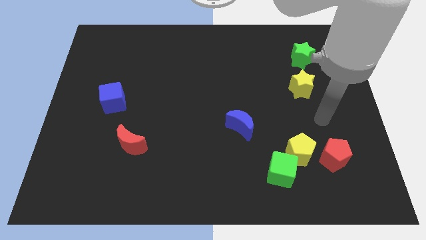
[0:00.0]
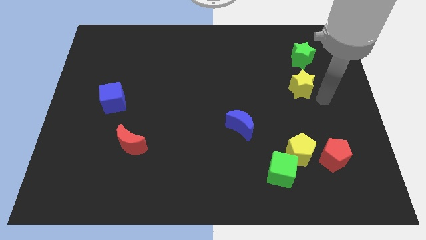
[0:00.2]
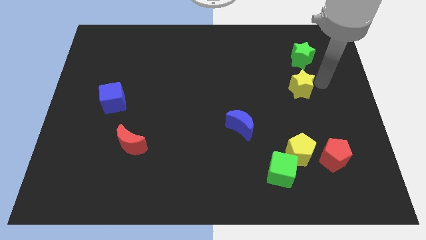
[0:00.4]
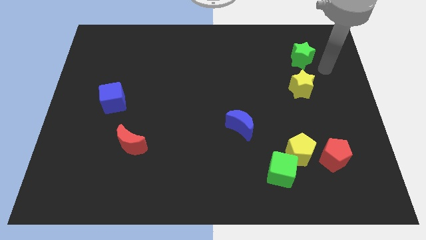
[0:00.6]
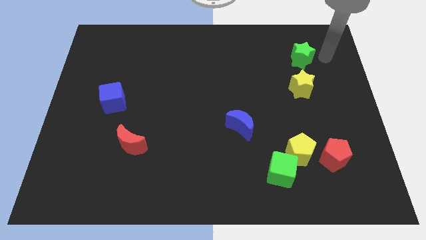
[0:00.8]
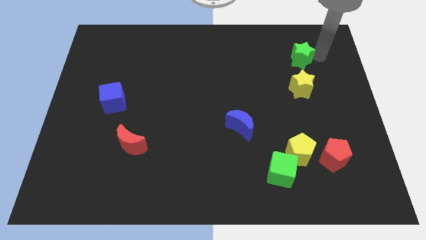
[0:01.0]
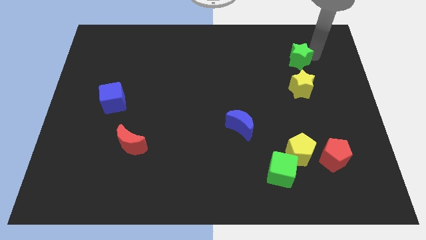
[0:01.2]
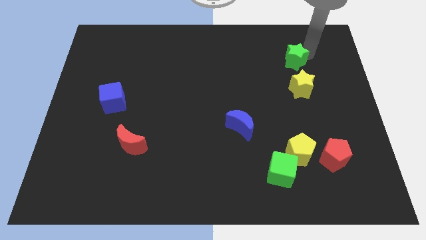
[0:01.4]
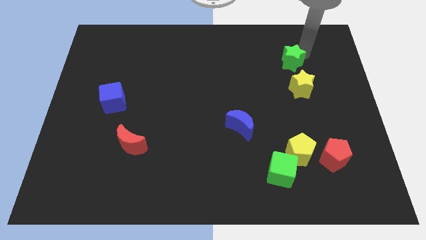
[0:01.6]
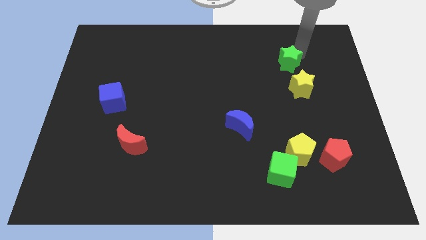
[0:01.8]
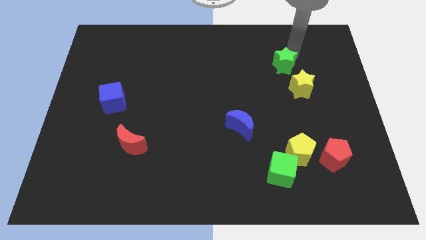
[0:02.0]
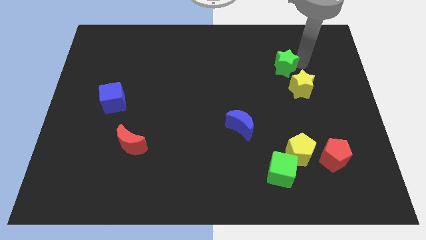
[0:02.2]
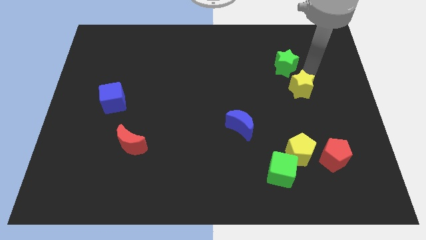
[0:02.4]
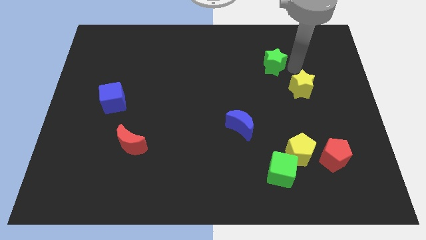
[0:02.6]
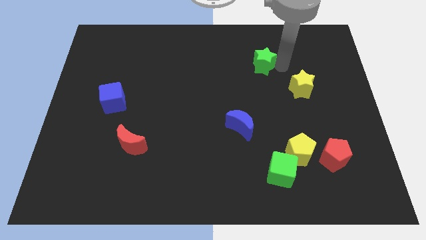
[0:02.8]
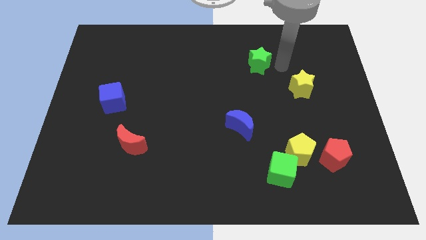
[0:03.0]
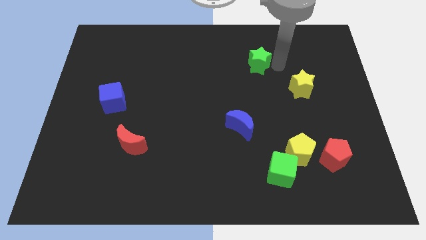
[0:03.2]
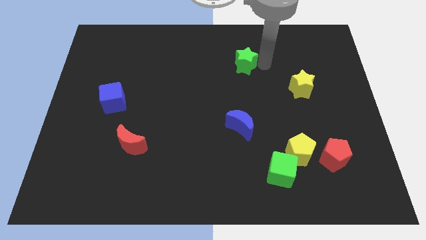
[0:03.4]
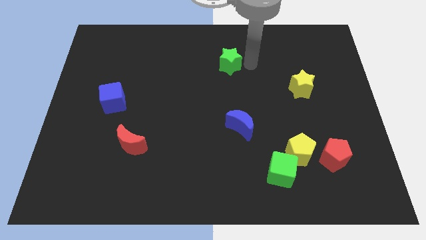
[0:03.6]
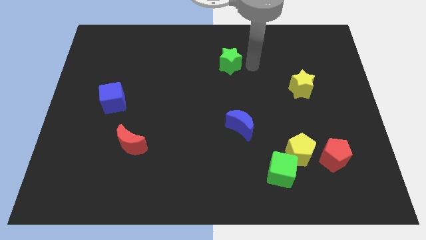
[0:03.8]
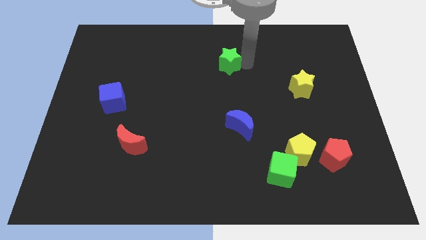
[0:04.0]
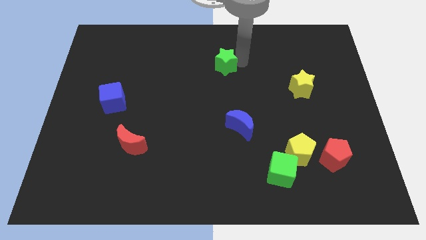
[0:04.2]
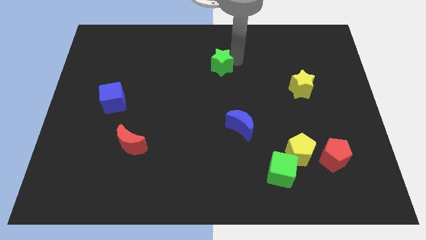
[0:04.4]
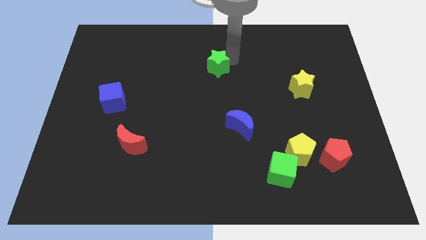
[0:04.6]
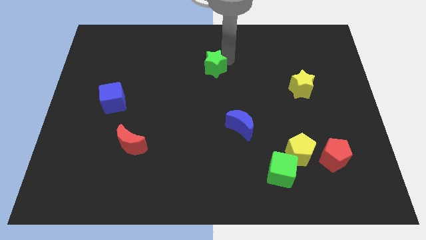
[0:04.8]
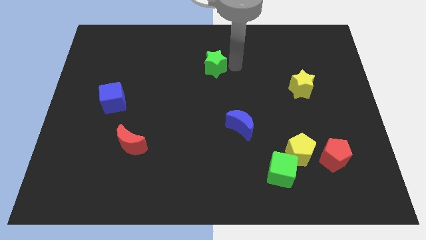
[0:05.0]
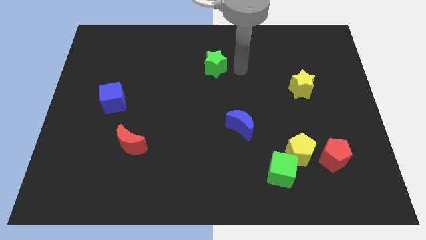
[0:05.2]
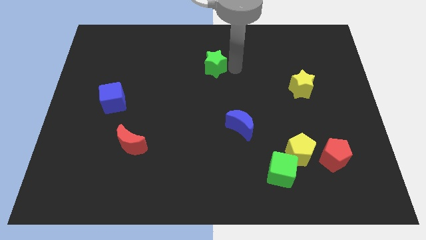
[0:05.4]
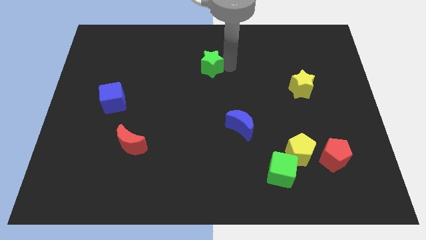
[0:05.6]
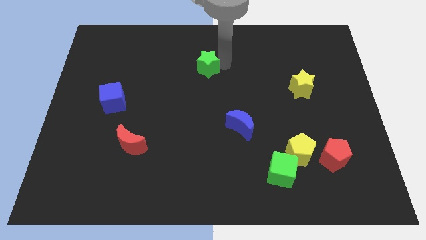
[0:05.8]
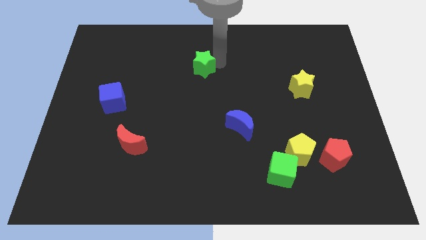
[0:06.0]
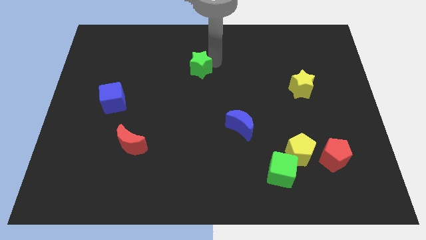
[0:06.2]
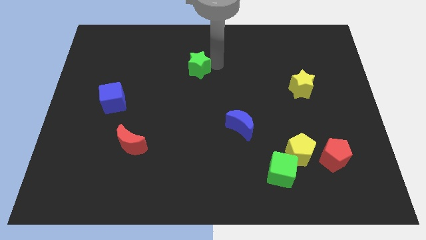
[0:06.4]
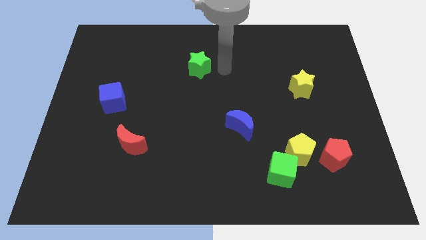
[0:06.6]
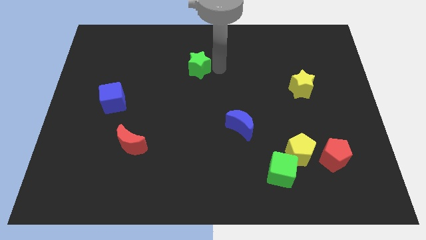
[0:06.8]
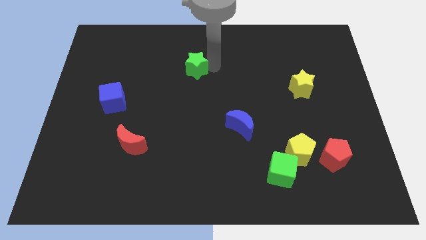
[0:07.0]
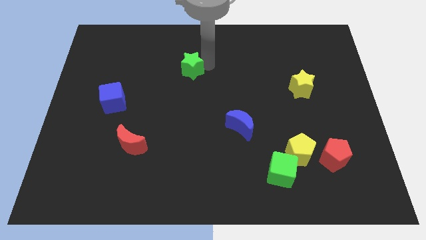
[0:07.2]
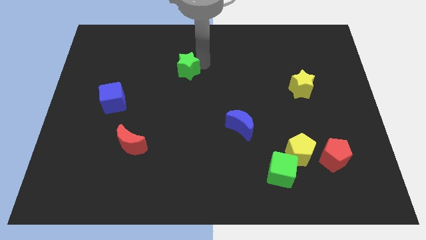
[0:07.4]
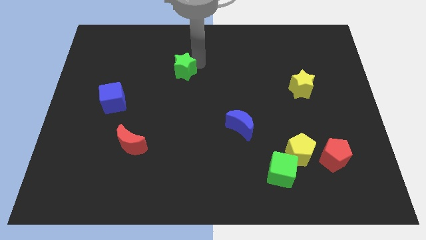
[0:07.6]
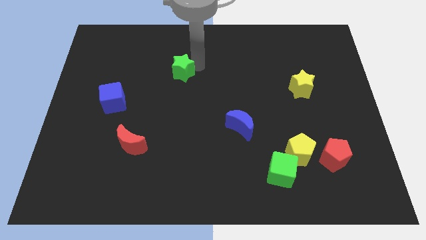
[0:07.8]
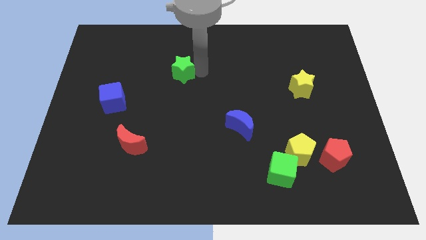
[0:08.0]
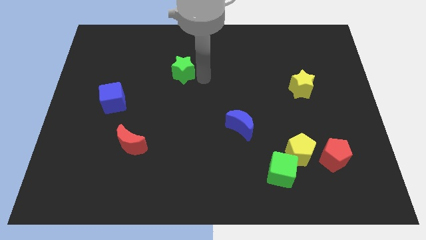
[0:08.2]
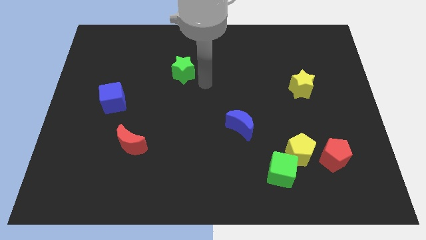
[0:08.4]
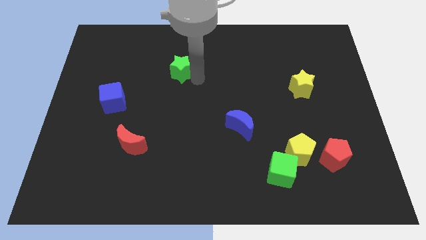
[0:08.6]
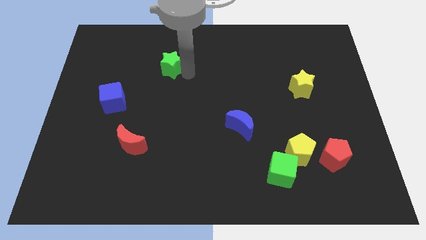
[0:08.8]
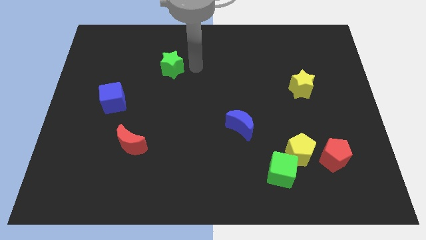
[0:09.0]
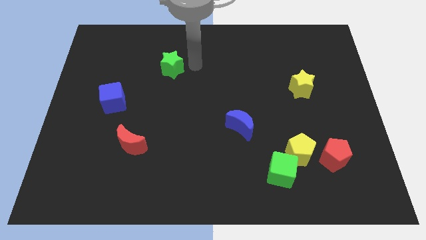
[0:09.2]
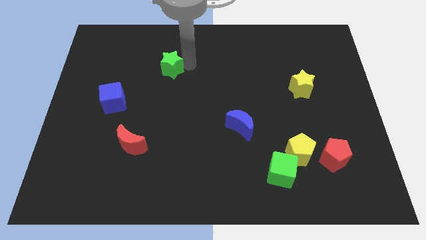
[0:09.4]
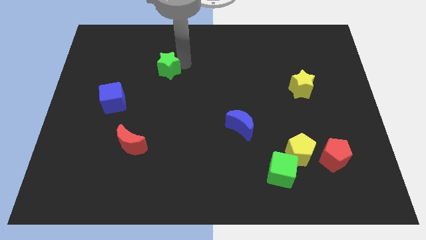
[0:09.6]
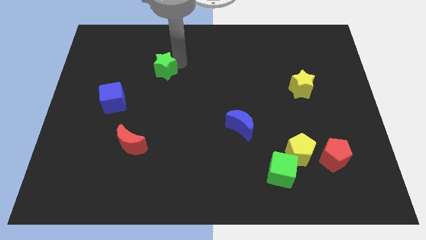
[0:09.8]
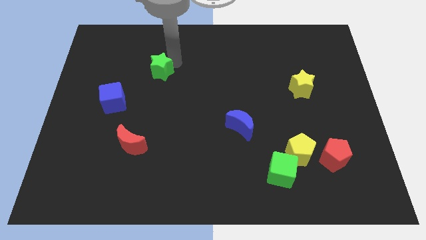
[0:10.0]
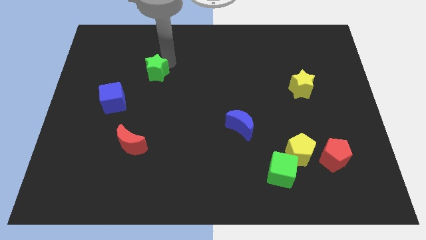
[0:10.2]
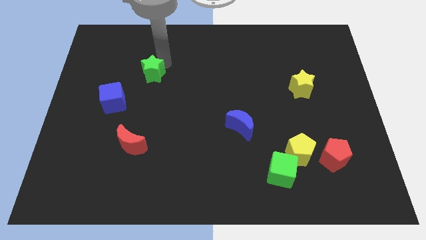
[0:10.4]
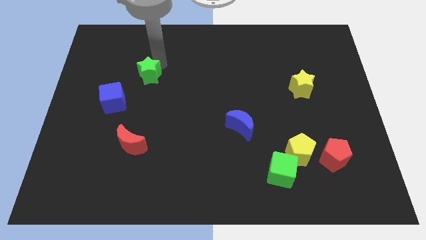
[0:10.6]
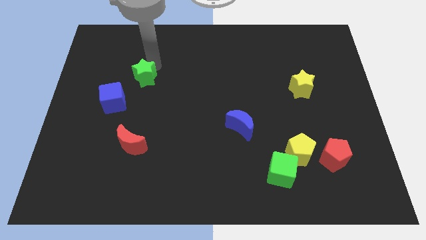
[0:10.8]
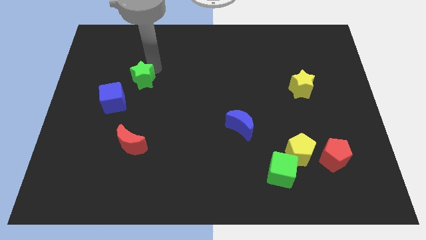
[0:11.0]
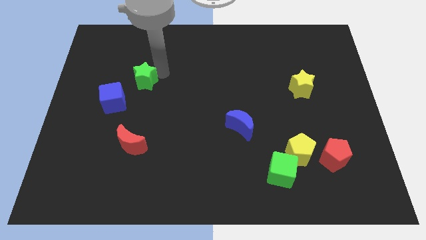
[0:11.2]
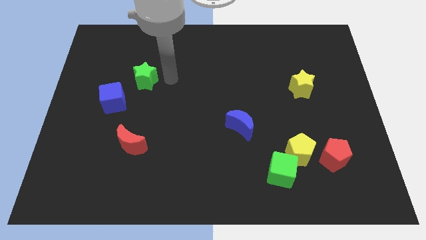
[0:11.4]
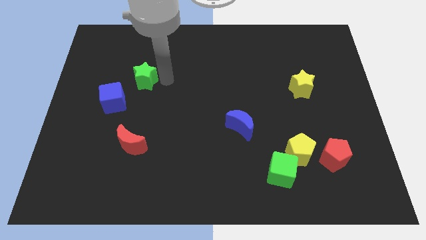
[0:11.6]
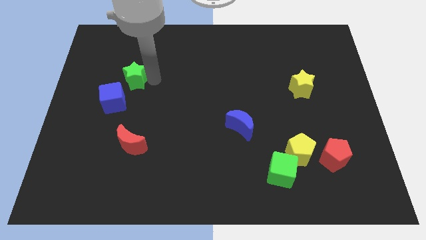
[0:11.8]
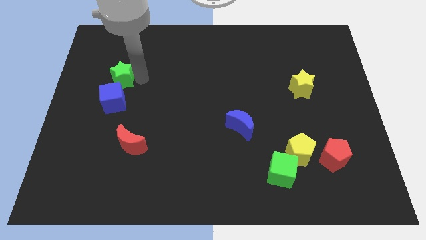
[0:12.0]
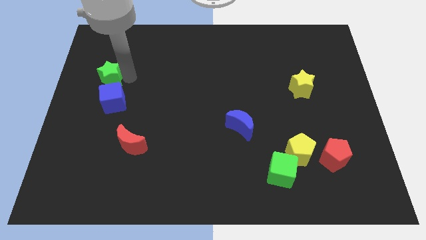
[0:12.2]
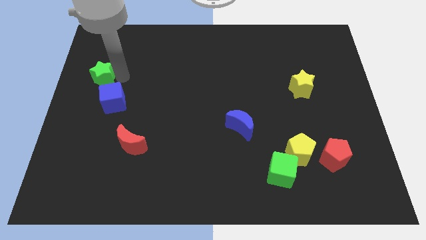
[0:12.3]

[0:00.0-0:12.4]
put the green star to the left side
